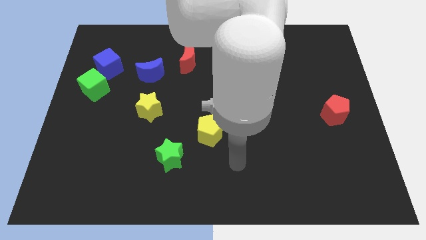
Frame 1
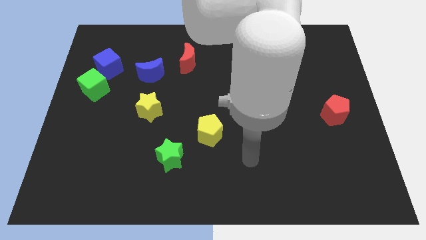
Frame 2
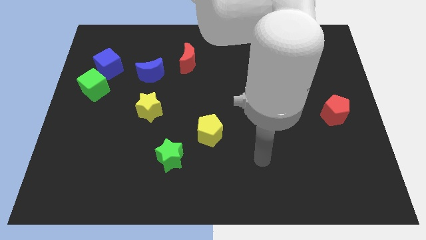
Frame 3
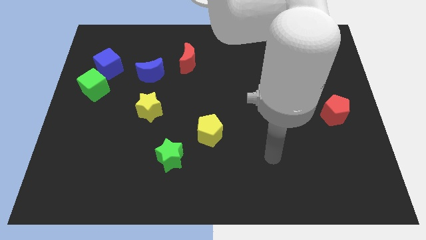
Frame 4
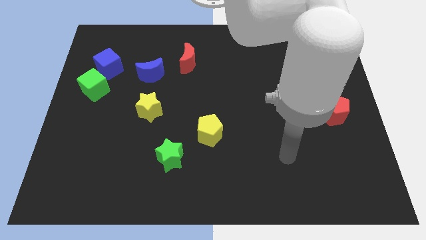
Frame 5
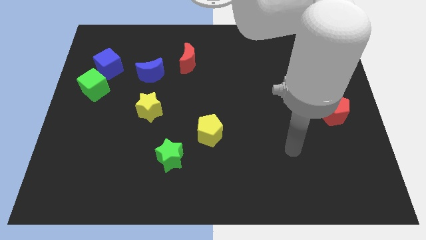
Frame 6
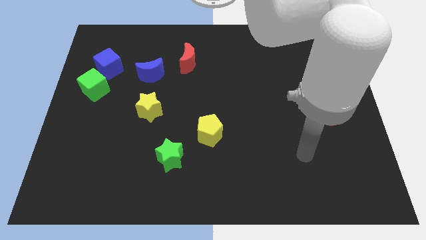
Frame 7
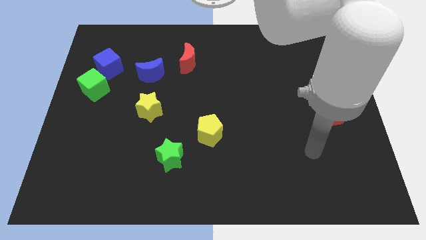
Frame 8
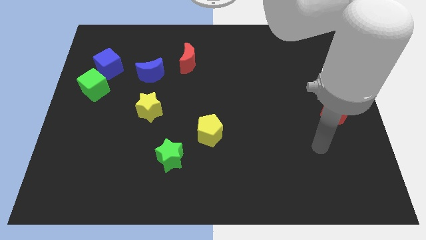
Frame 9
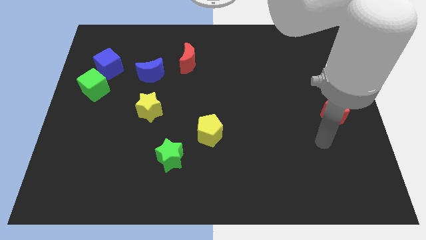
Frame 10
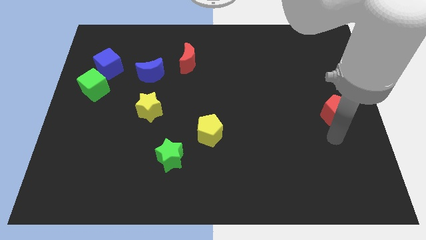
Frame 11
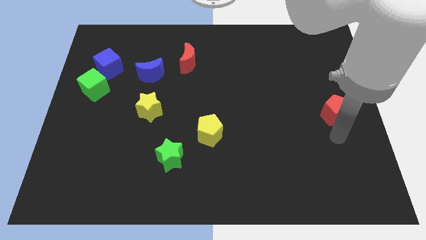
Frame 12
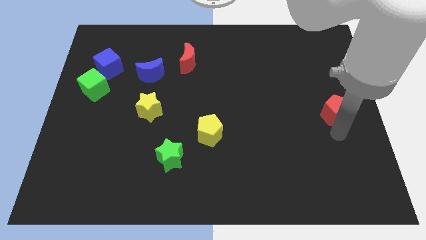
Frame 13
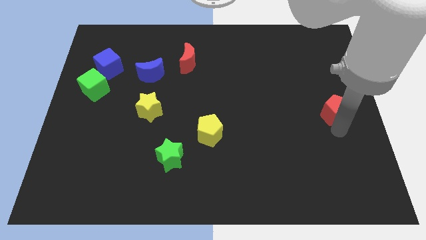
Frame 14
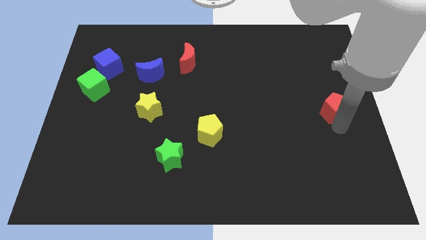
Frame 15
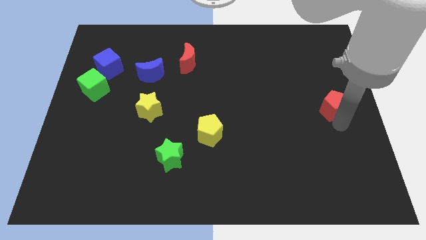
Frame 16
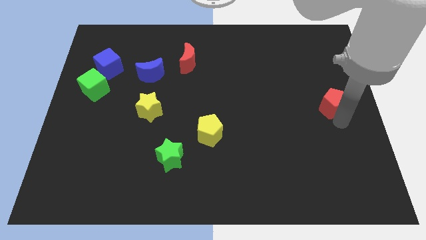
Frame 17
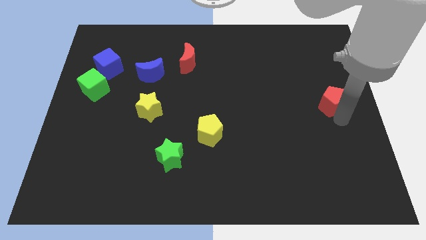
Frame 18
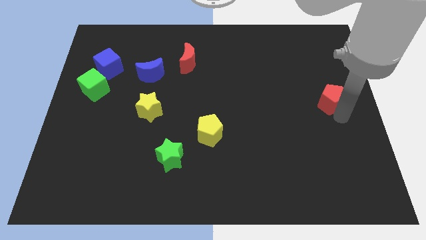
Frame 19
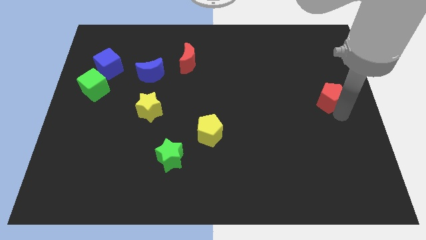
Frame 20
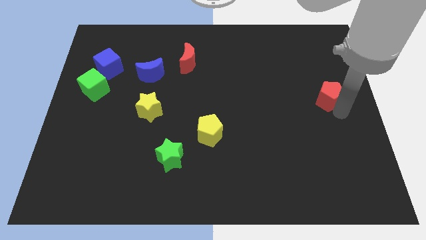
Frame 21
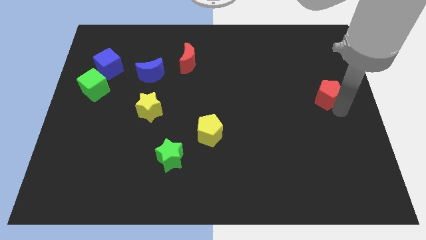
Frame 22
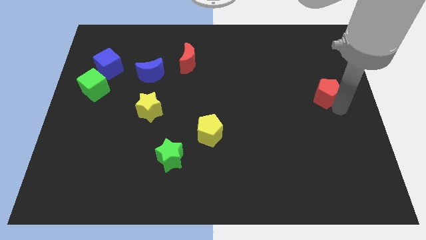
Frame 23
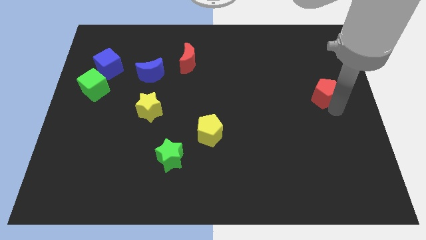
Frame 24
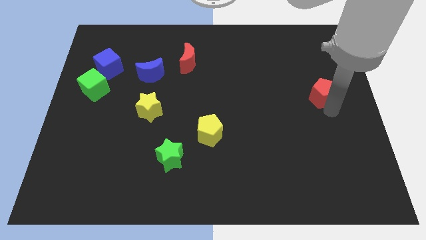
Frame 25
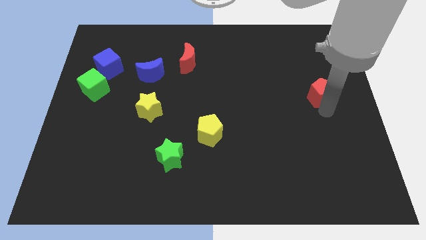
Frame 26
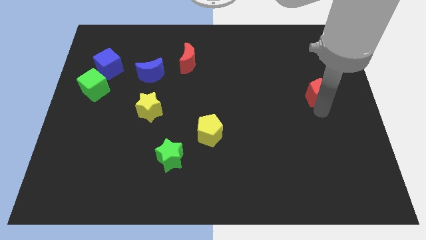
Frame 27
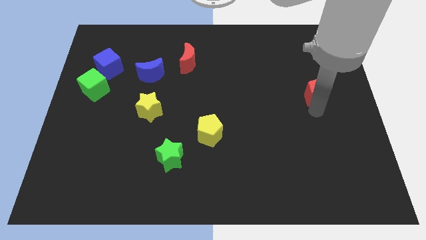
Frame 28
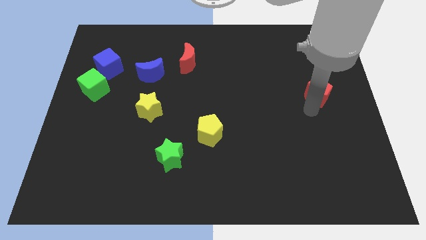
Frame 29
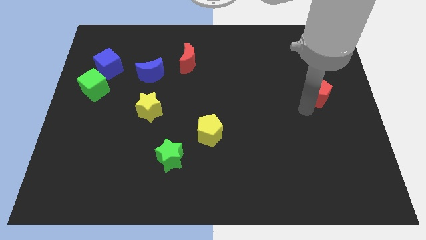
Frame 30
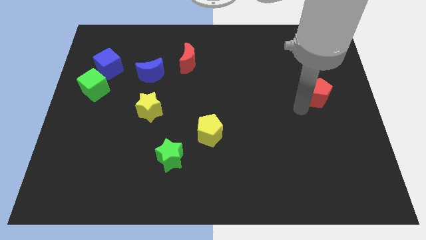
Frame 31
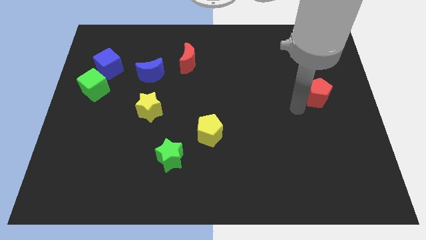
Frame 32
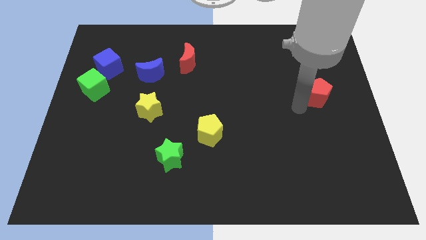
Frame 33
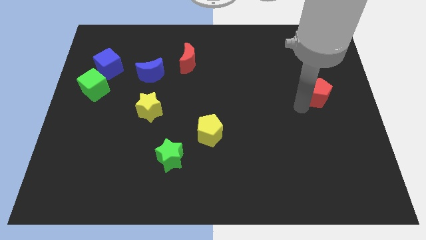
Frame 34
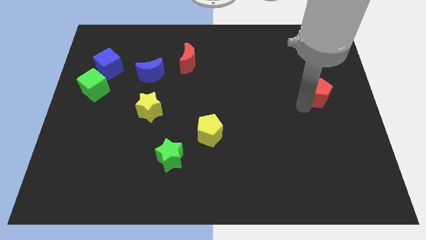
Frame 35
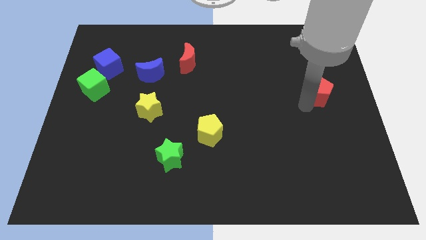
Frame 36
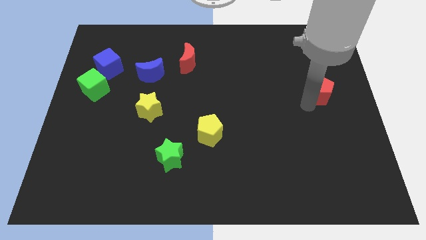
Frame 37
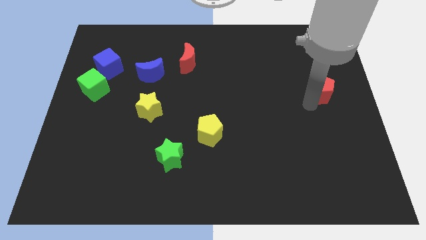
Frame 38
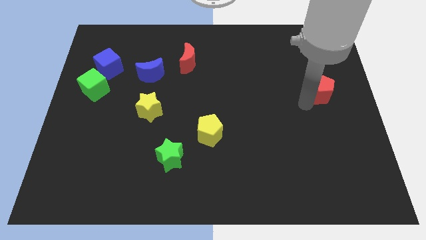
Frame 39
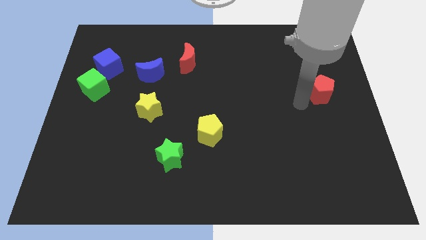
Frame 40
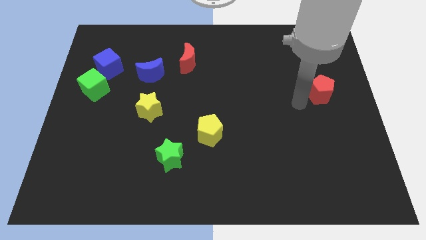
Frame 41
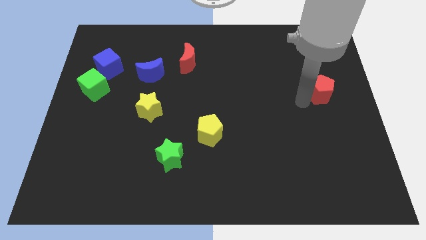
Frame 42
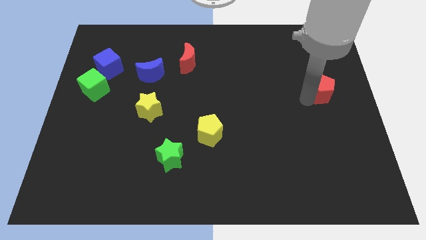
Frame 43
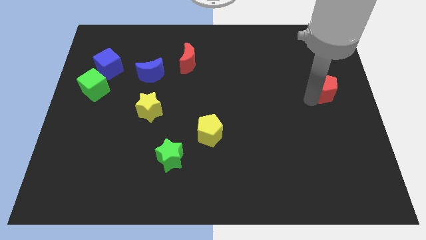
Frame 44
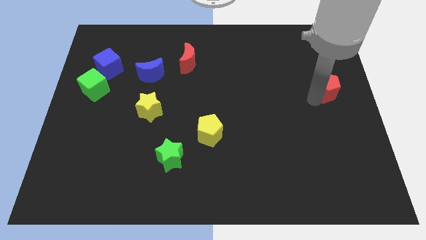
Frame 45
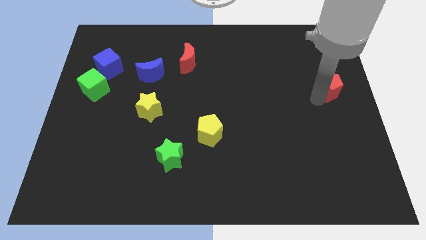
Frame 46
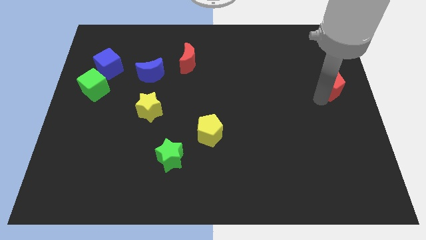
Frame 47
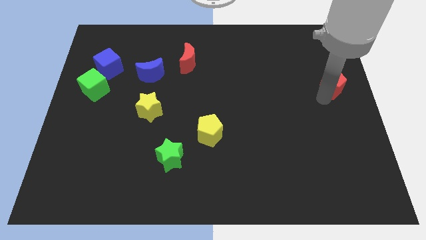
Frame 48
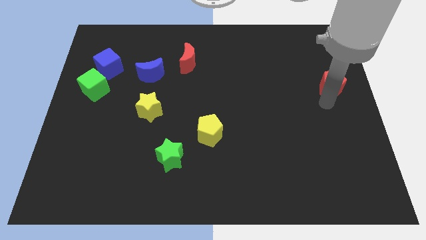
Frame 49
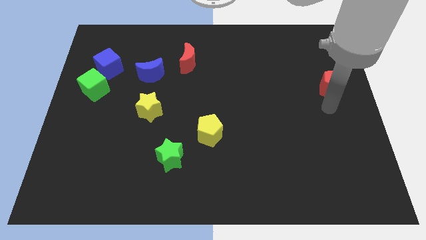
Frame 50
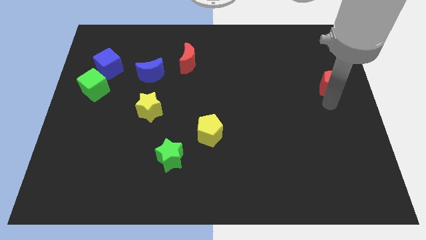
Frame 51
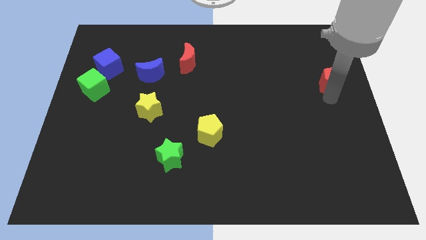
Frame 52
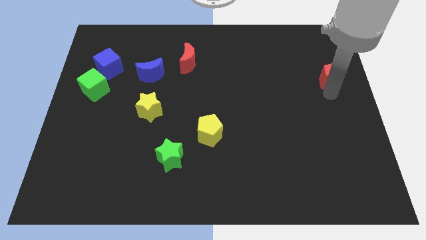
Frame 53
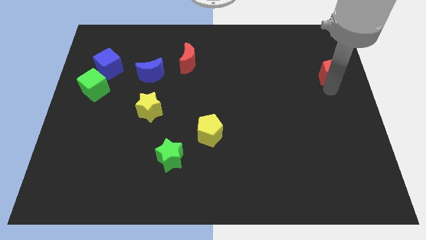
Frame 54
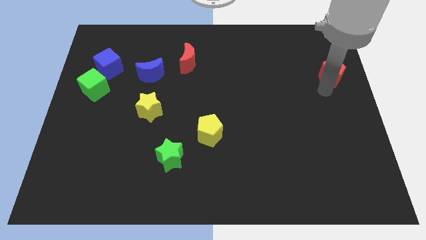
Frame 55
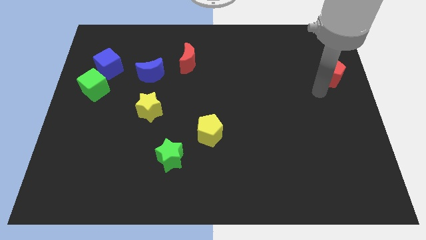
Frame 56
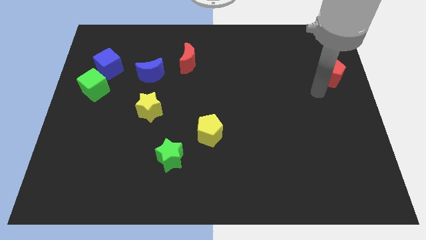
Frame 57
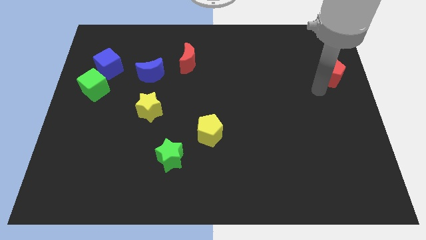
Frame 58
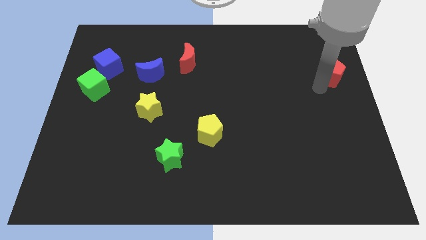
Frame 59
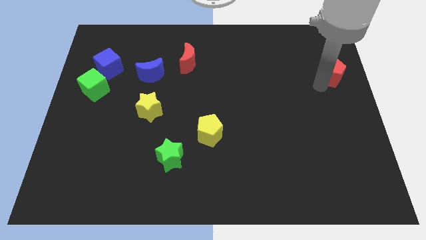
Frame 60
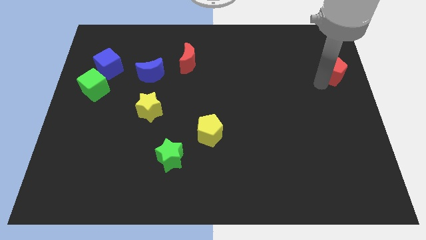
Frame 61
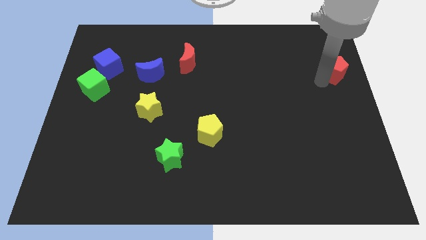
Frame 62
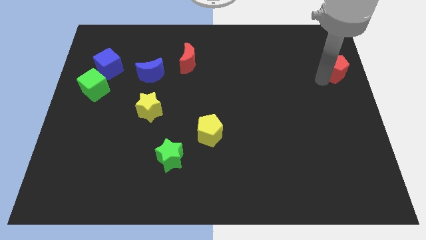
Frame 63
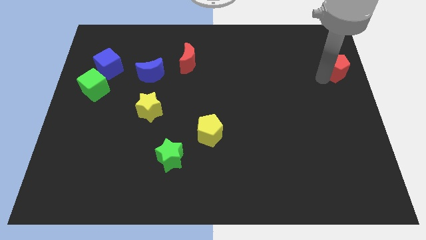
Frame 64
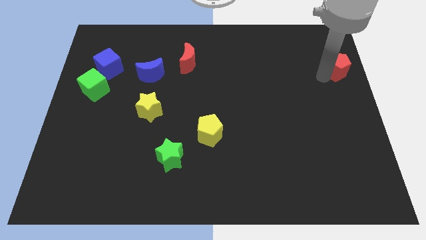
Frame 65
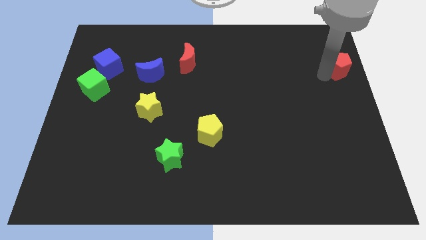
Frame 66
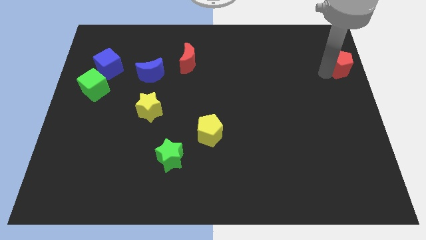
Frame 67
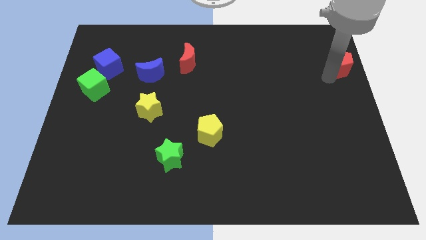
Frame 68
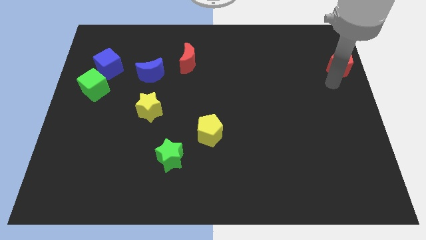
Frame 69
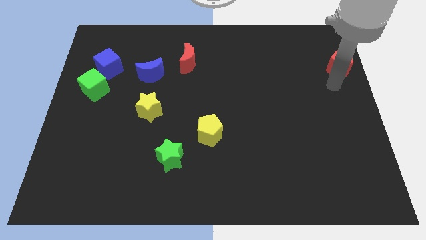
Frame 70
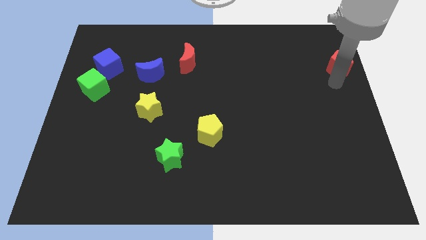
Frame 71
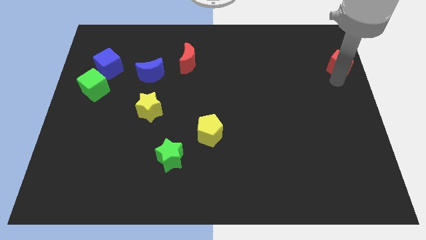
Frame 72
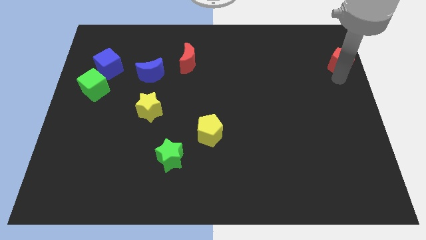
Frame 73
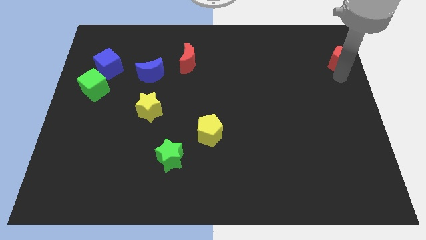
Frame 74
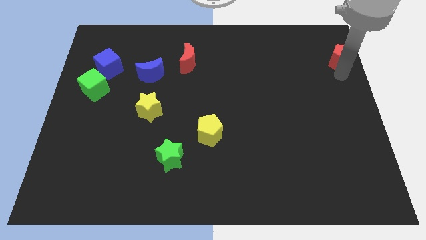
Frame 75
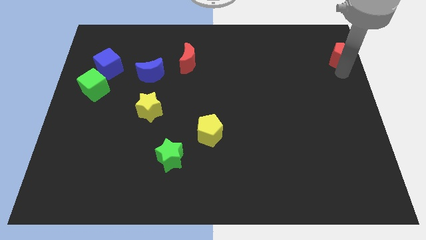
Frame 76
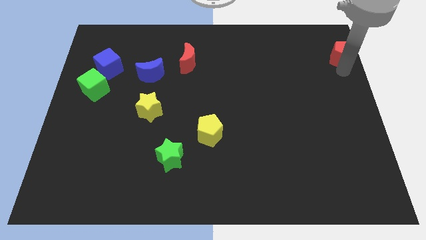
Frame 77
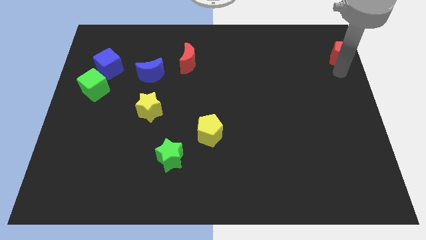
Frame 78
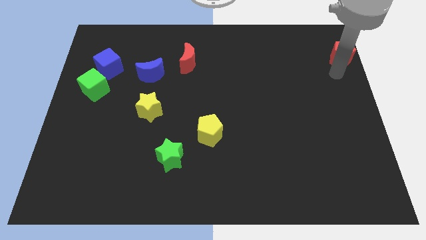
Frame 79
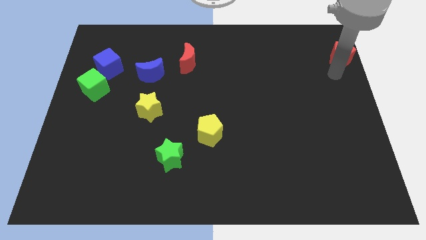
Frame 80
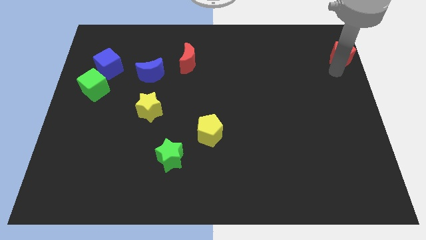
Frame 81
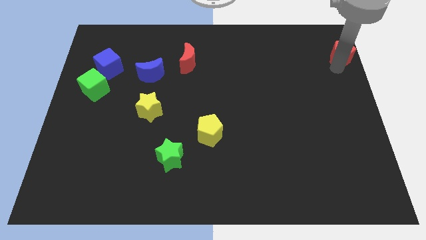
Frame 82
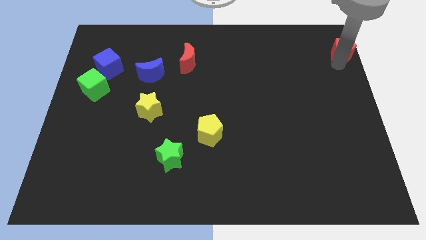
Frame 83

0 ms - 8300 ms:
put the red pentagon to the upper right corner
